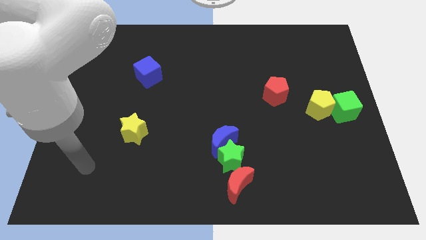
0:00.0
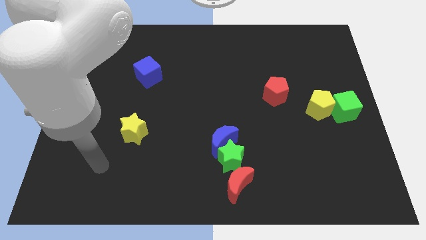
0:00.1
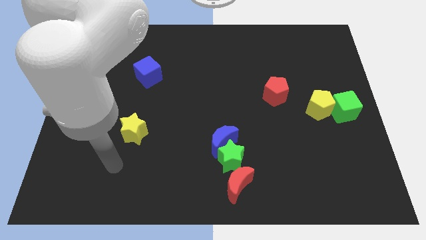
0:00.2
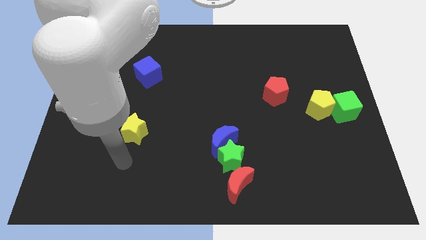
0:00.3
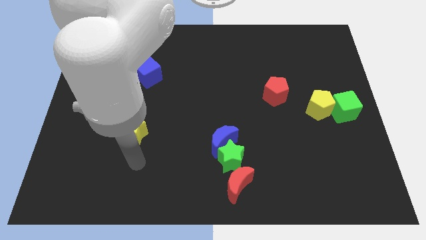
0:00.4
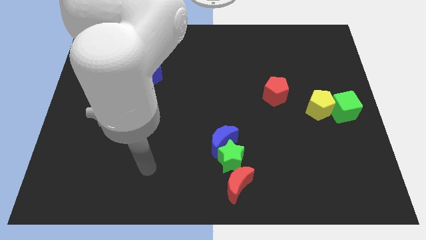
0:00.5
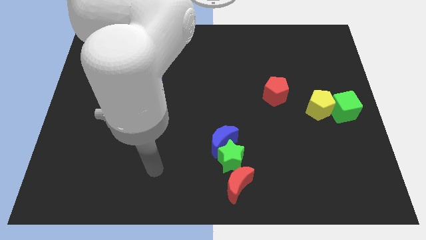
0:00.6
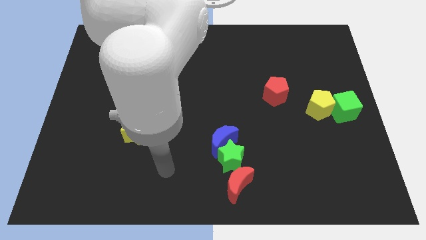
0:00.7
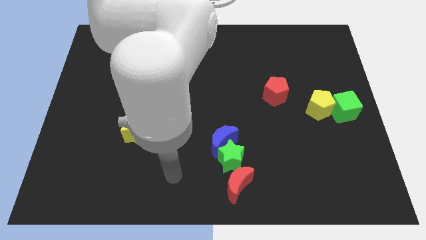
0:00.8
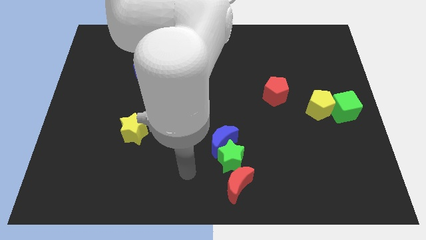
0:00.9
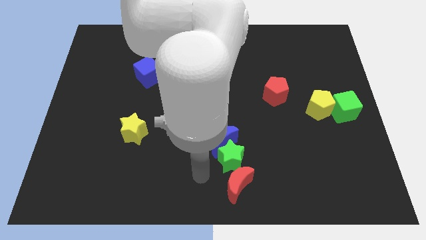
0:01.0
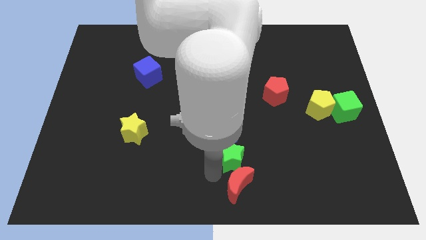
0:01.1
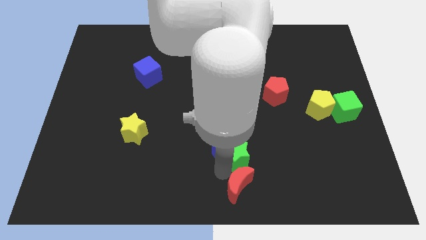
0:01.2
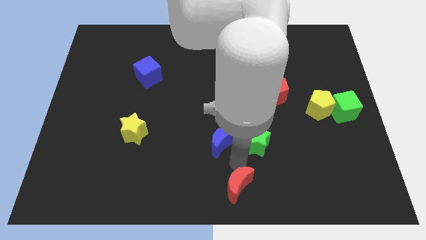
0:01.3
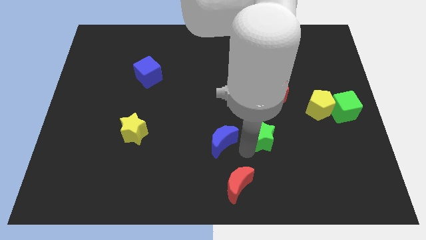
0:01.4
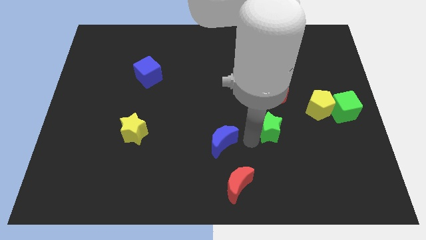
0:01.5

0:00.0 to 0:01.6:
pull the blue moon apart from the green star

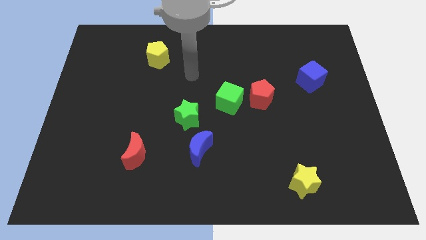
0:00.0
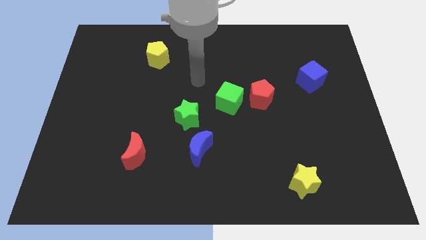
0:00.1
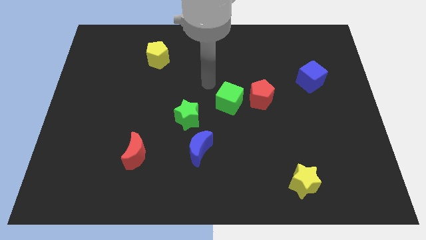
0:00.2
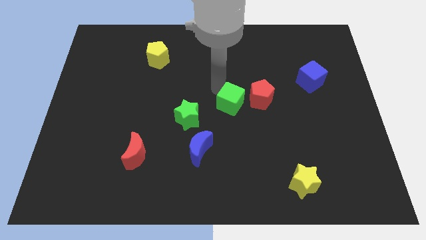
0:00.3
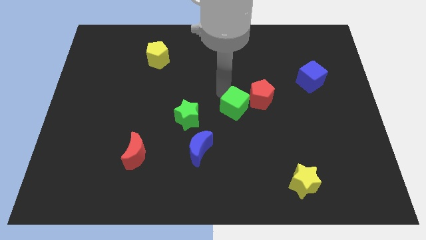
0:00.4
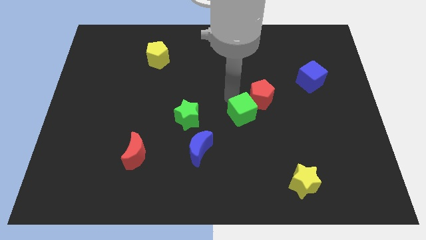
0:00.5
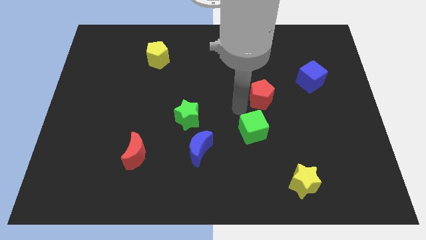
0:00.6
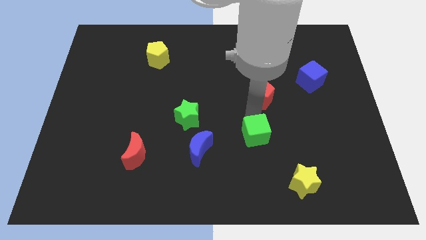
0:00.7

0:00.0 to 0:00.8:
move the red pentagon away from the green cube

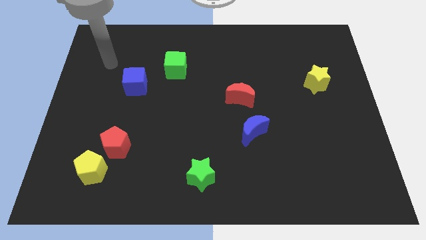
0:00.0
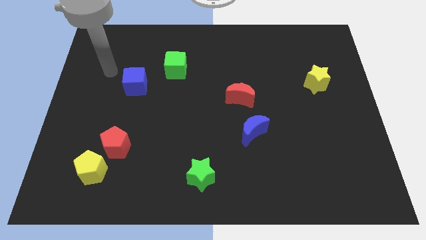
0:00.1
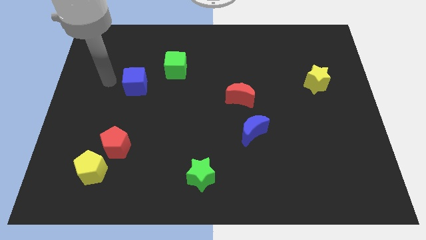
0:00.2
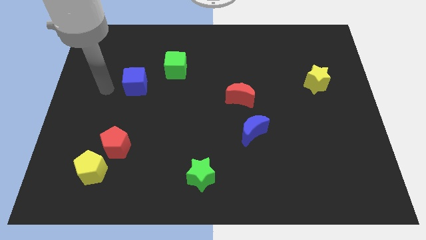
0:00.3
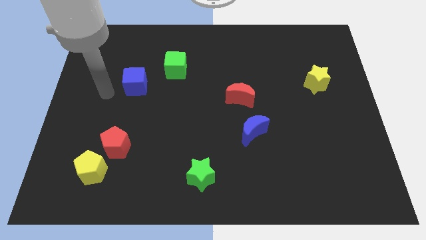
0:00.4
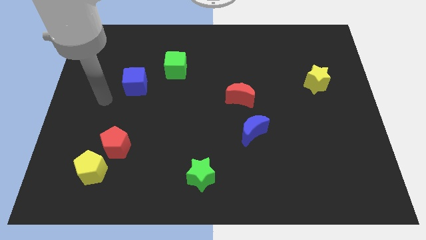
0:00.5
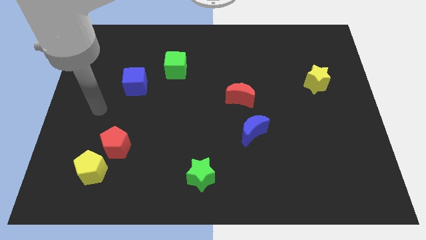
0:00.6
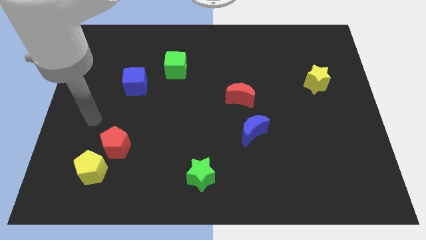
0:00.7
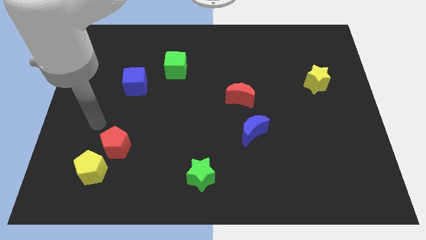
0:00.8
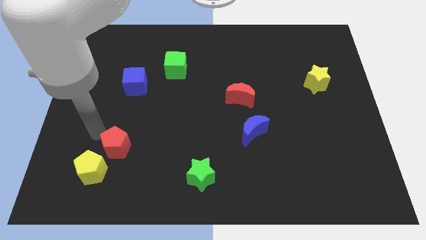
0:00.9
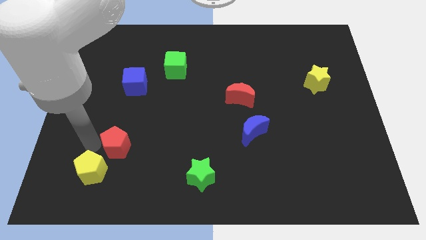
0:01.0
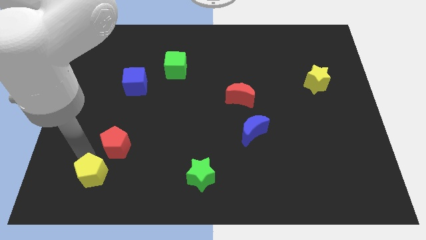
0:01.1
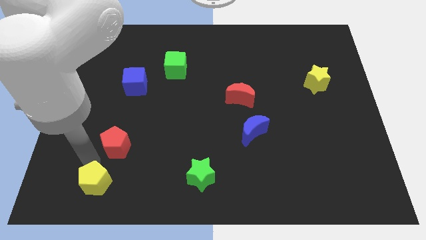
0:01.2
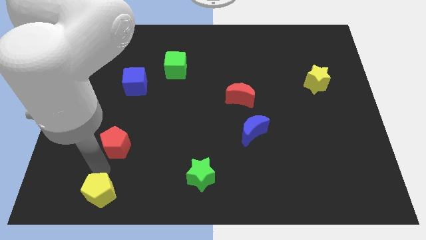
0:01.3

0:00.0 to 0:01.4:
move the red pentagon away from the yellow pentagon

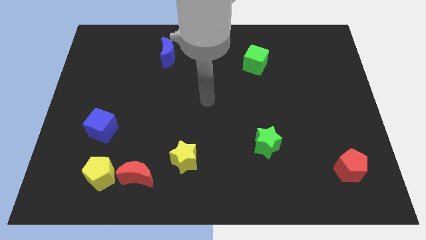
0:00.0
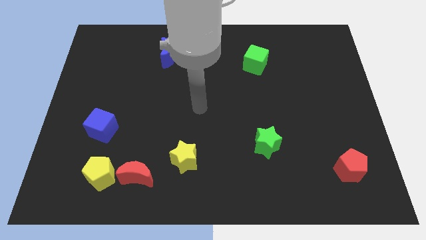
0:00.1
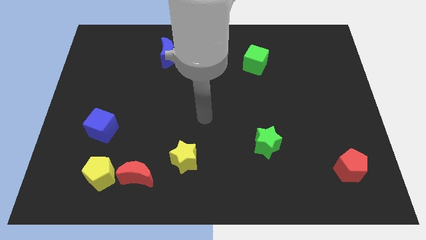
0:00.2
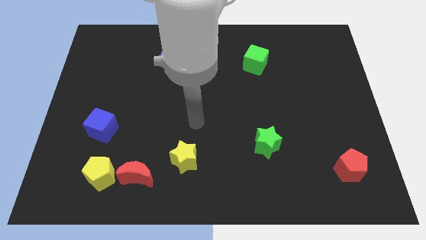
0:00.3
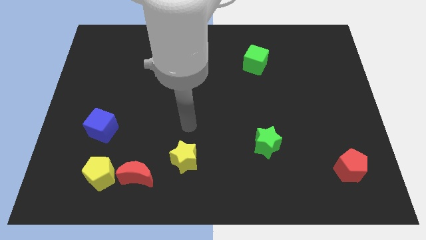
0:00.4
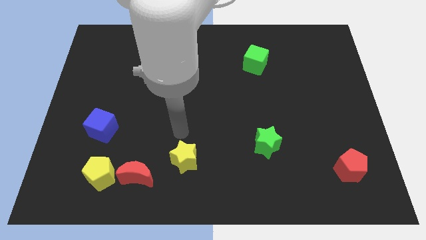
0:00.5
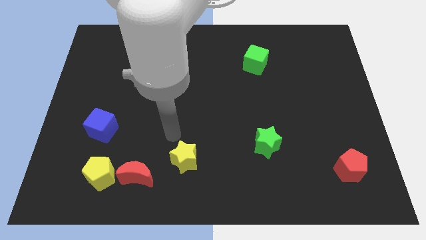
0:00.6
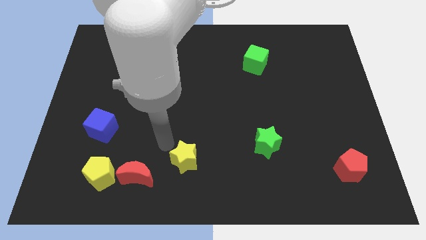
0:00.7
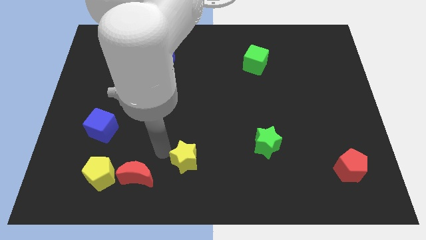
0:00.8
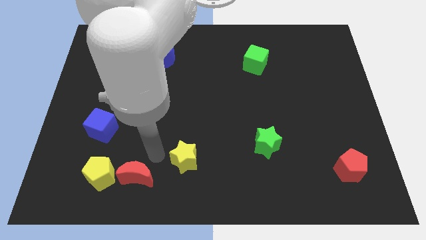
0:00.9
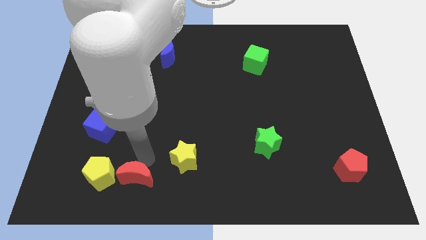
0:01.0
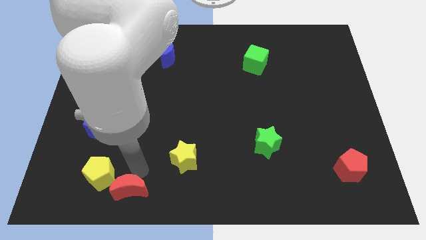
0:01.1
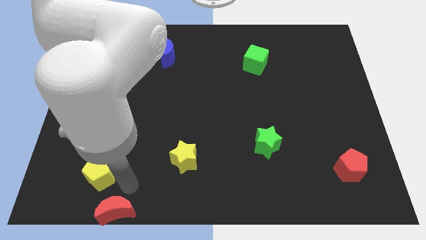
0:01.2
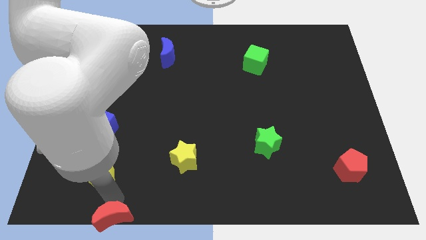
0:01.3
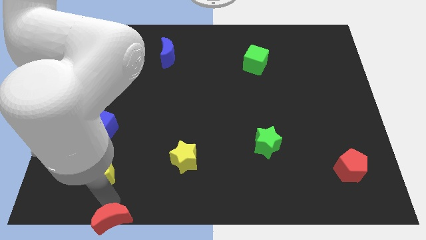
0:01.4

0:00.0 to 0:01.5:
separate the yellow pentagon from the red moon

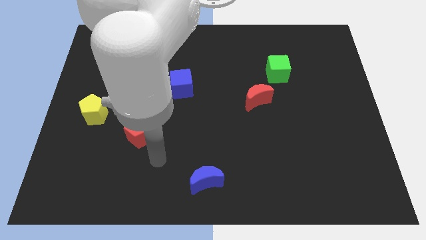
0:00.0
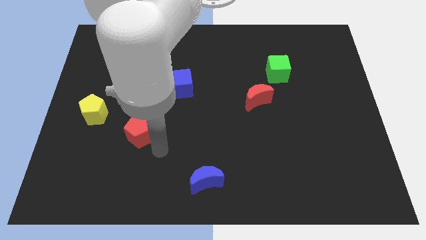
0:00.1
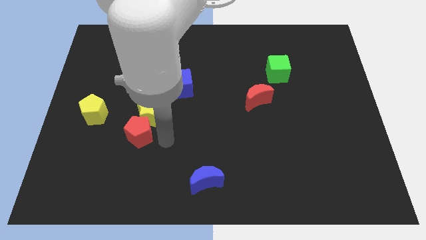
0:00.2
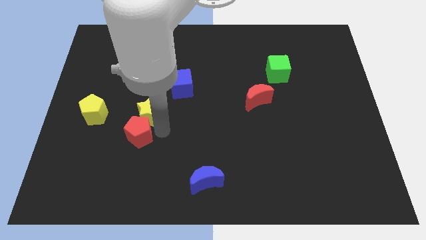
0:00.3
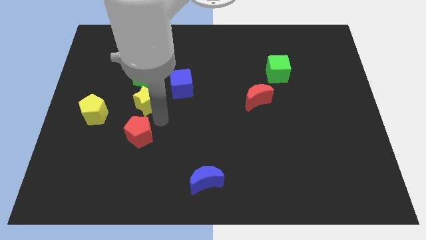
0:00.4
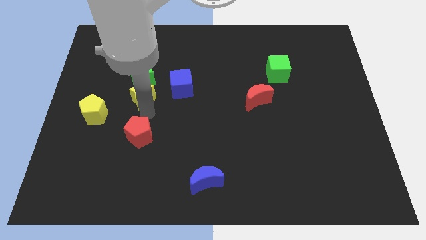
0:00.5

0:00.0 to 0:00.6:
separate the red pentagon from the yellow star

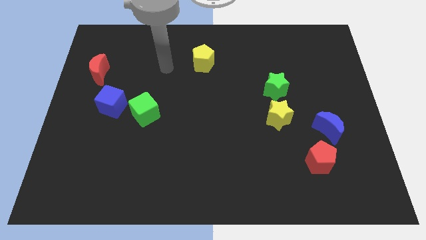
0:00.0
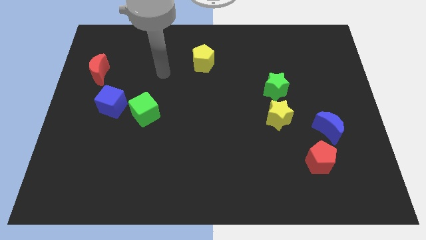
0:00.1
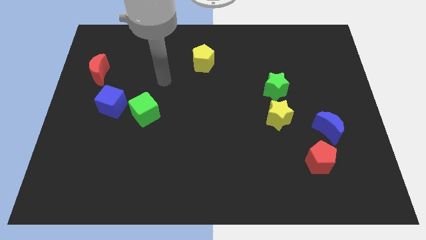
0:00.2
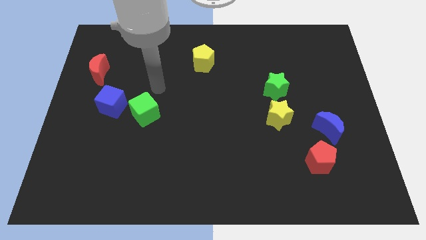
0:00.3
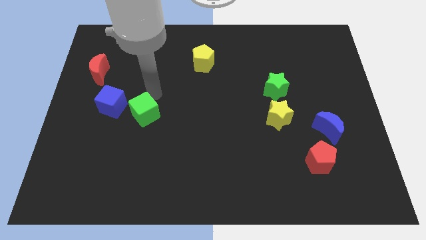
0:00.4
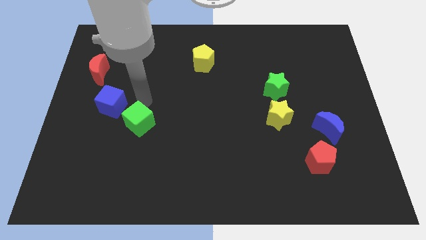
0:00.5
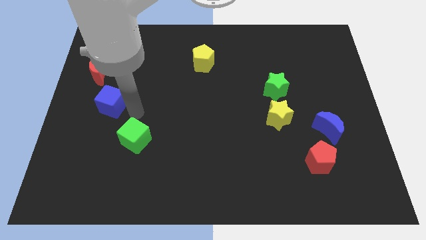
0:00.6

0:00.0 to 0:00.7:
separate the blue cube from the green cube

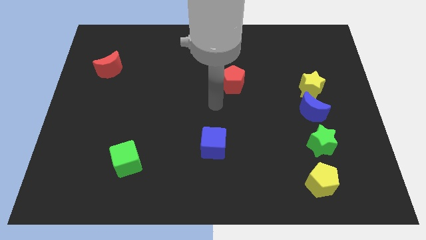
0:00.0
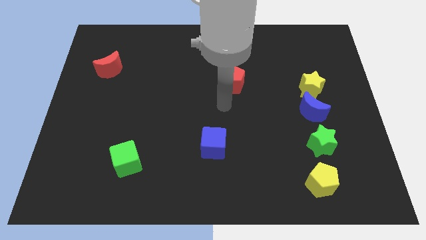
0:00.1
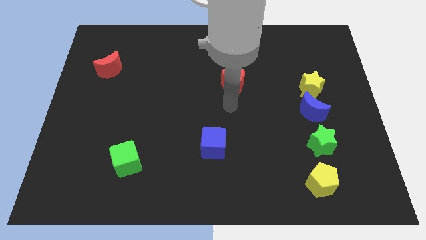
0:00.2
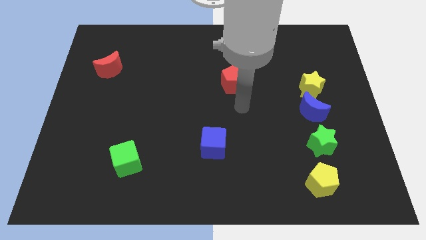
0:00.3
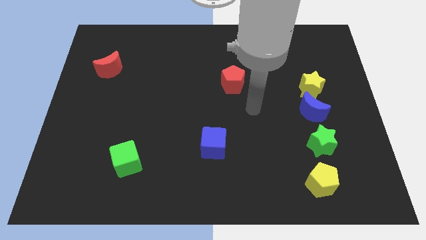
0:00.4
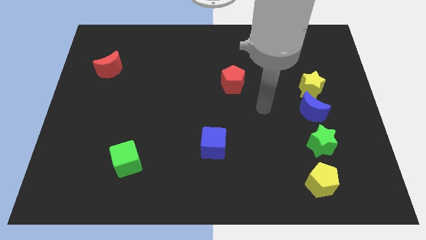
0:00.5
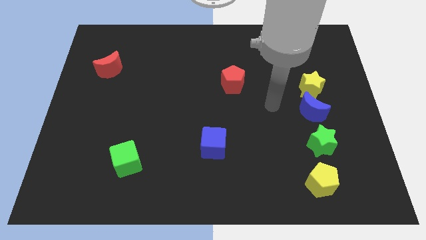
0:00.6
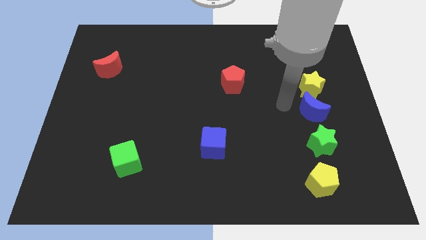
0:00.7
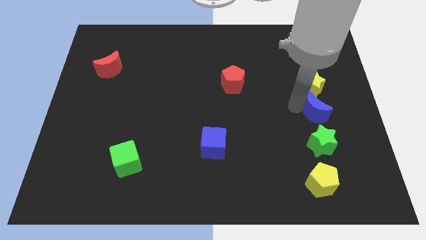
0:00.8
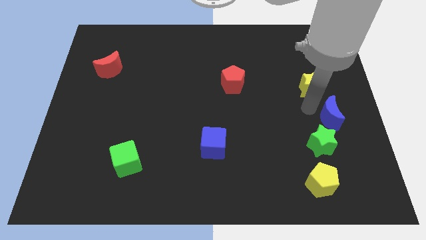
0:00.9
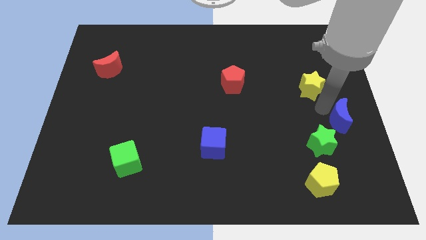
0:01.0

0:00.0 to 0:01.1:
move the yellow star away from the blue moon

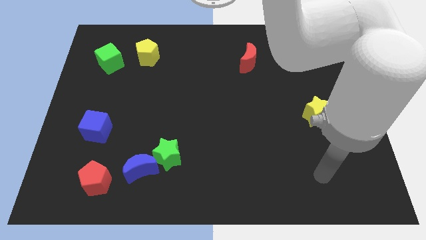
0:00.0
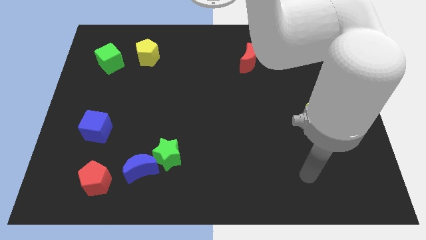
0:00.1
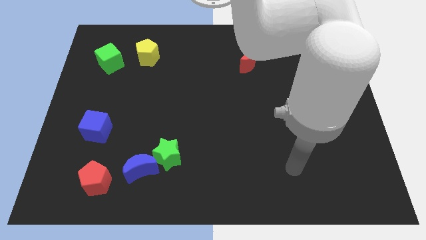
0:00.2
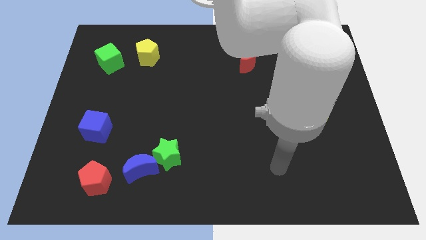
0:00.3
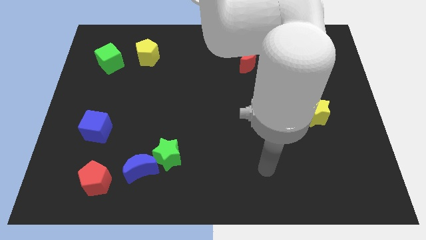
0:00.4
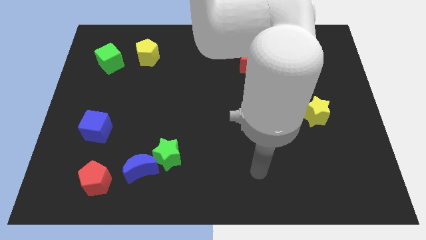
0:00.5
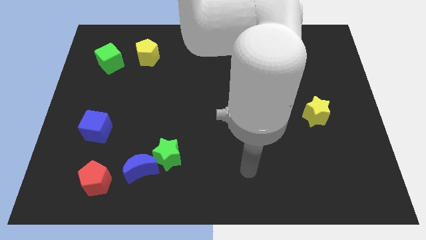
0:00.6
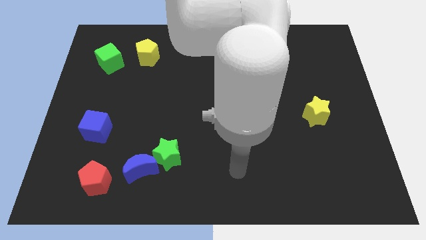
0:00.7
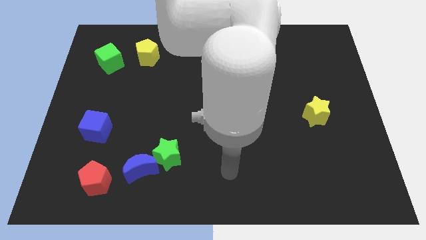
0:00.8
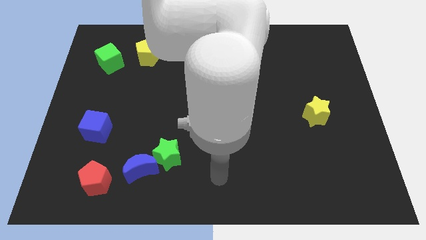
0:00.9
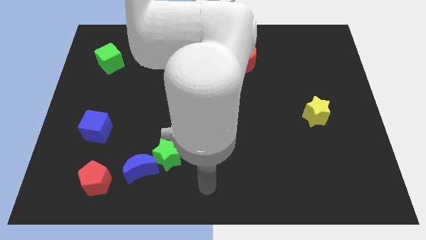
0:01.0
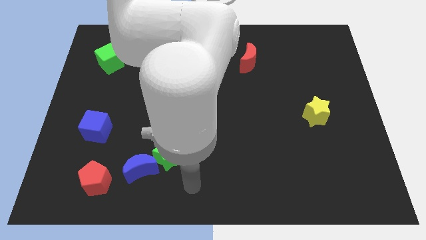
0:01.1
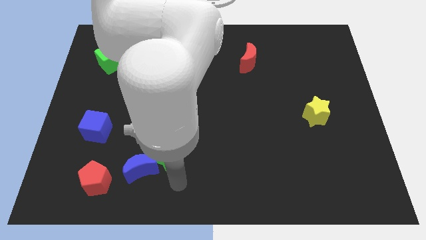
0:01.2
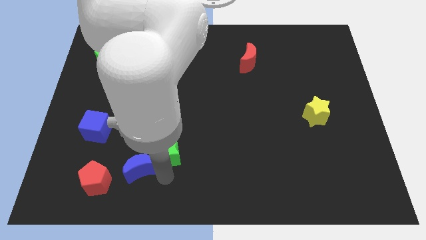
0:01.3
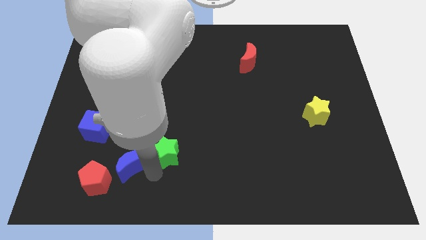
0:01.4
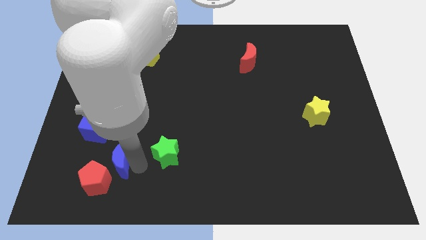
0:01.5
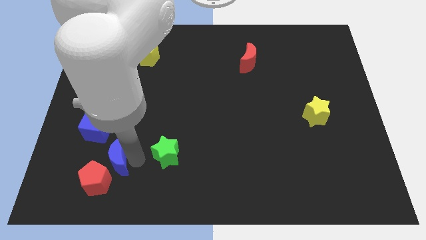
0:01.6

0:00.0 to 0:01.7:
pull the green star apart from the blue moon
